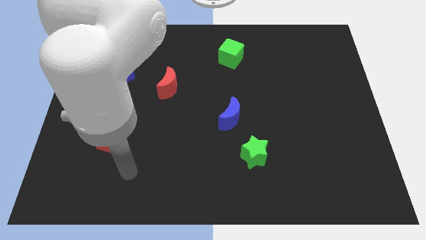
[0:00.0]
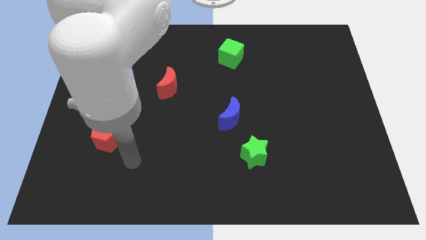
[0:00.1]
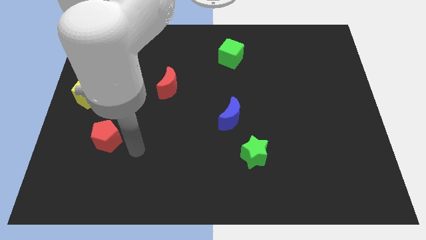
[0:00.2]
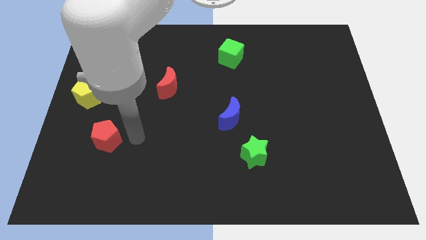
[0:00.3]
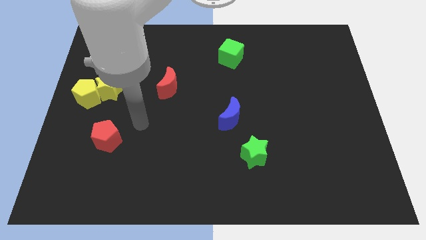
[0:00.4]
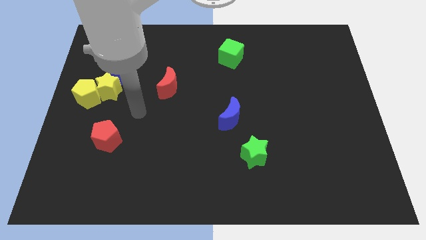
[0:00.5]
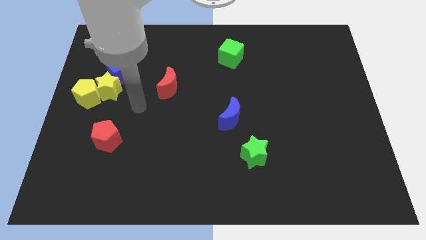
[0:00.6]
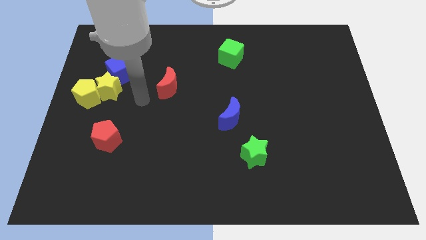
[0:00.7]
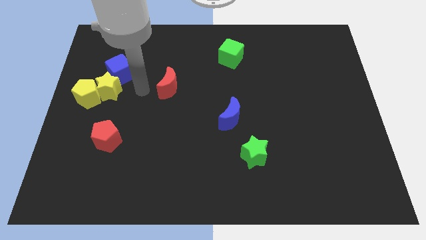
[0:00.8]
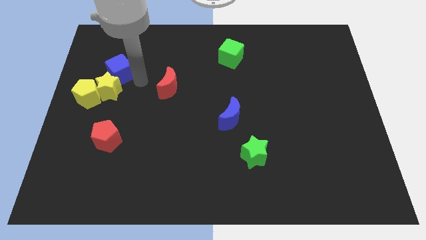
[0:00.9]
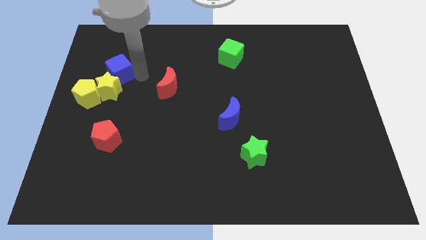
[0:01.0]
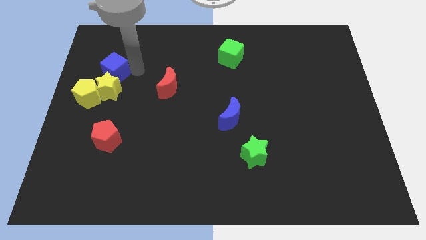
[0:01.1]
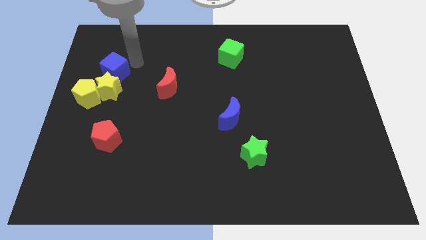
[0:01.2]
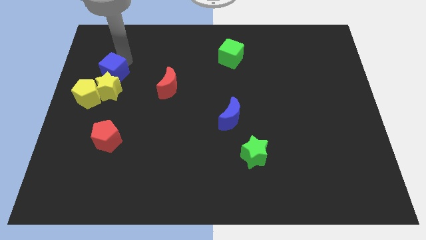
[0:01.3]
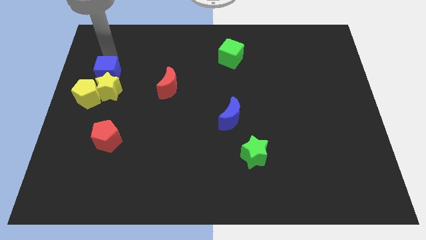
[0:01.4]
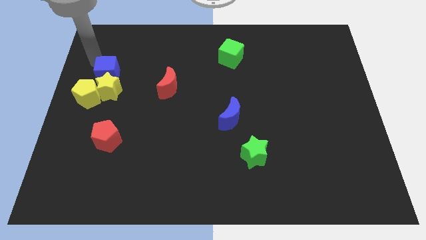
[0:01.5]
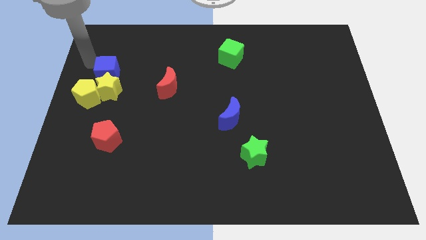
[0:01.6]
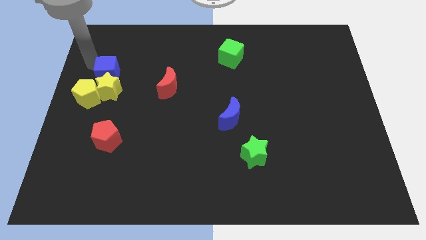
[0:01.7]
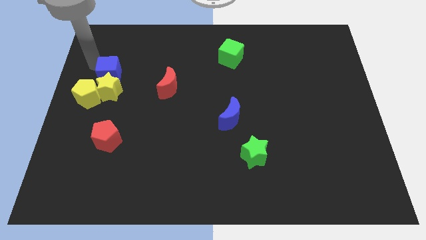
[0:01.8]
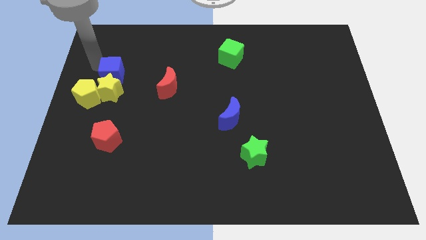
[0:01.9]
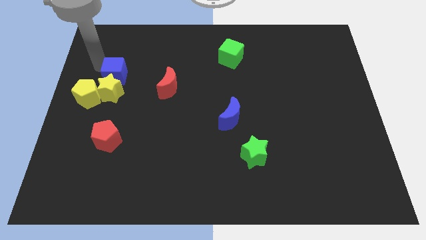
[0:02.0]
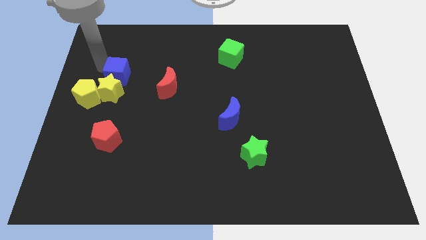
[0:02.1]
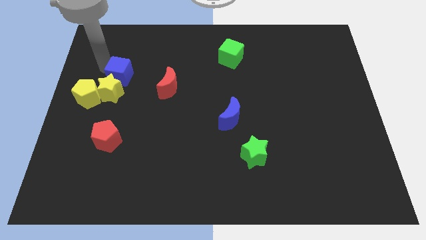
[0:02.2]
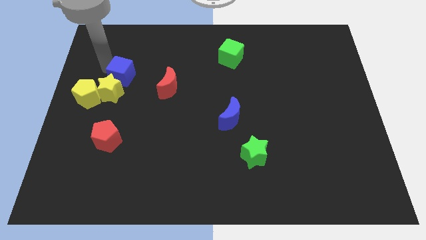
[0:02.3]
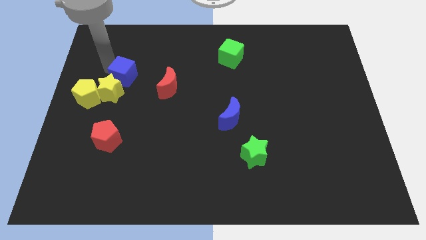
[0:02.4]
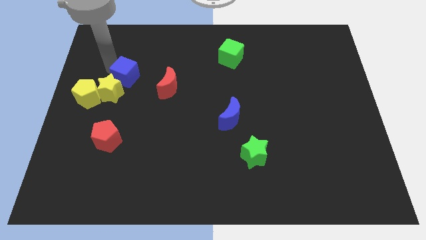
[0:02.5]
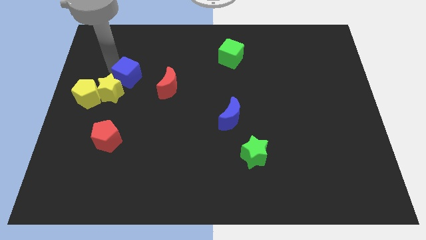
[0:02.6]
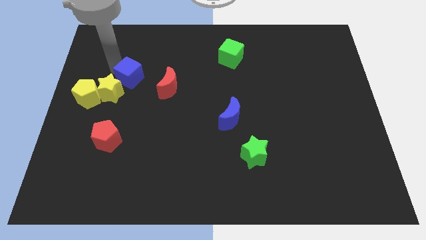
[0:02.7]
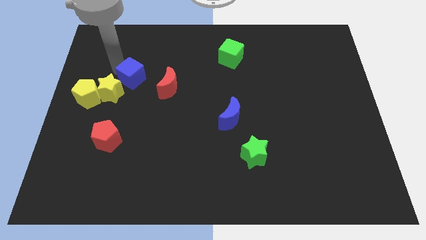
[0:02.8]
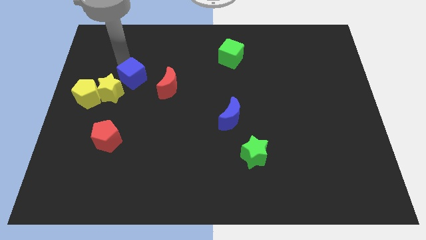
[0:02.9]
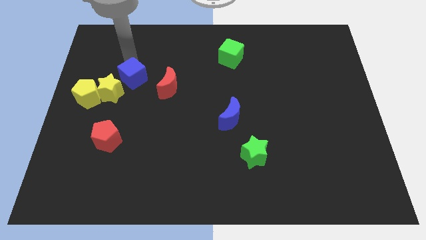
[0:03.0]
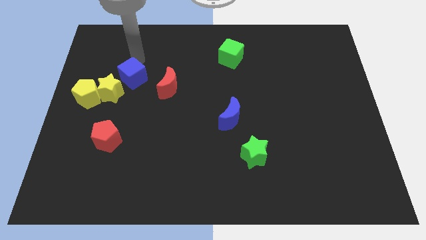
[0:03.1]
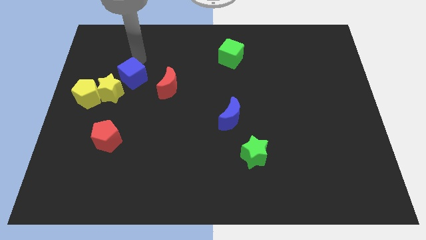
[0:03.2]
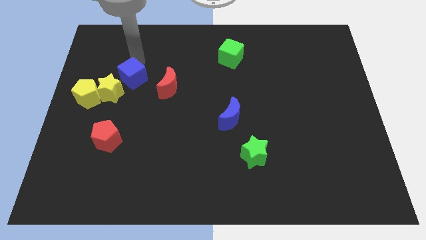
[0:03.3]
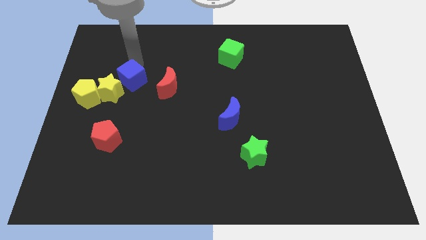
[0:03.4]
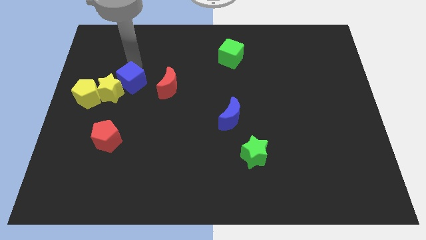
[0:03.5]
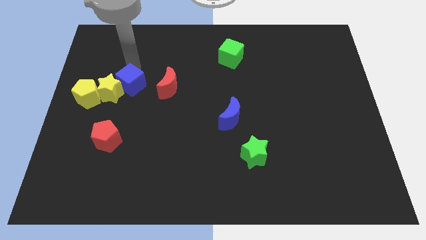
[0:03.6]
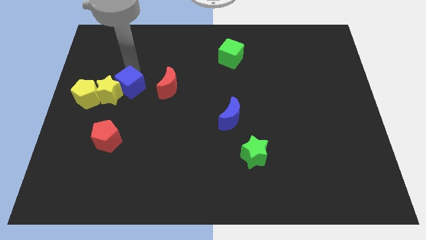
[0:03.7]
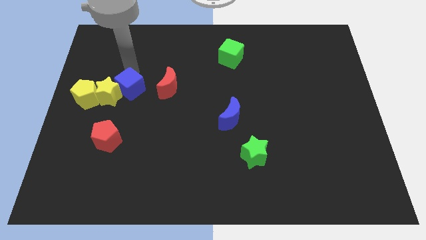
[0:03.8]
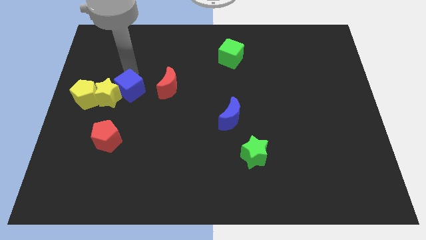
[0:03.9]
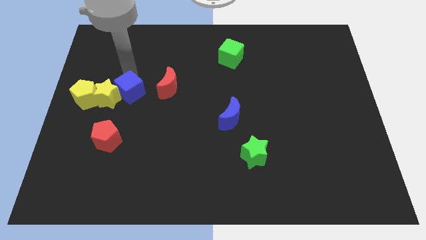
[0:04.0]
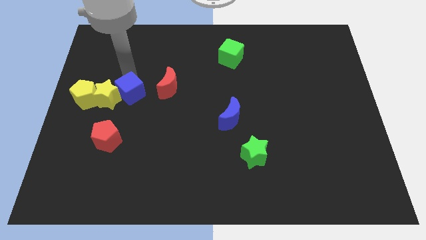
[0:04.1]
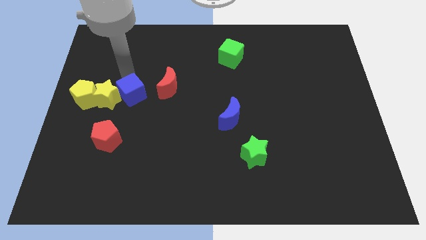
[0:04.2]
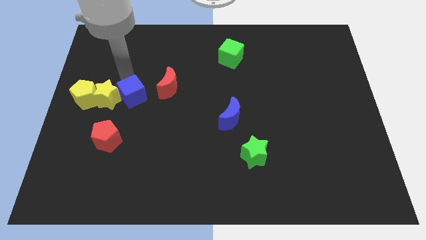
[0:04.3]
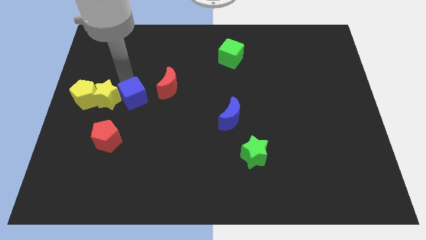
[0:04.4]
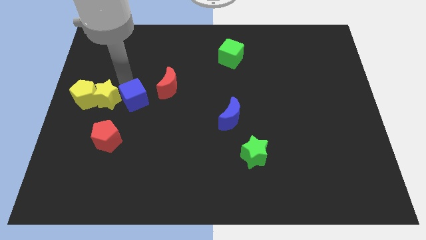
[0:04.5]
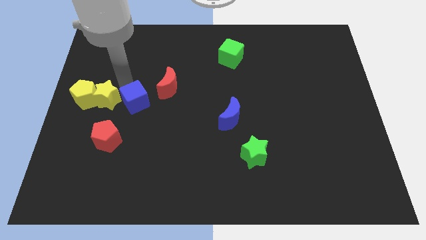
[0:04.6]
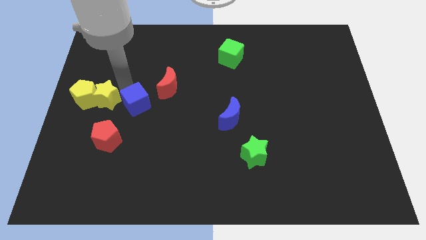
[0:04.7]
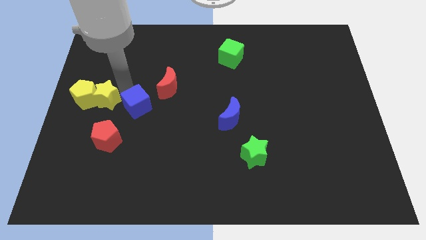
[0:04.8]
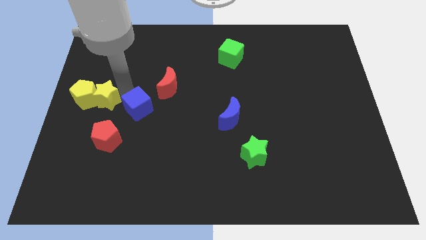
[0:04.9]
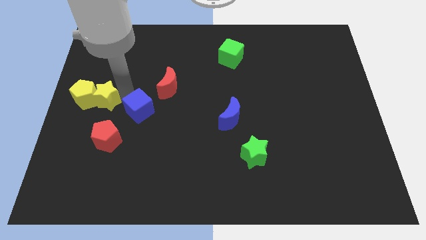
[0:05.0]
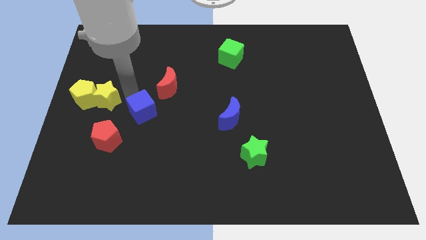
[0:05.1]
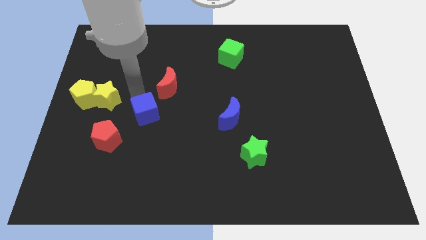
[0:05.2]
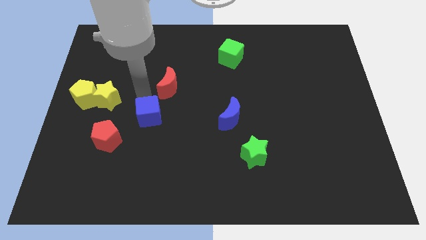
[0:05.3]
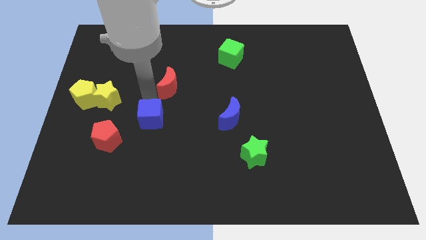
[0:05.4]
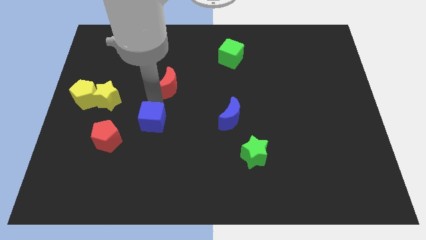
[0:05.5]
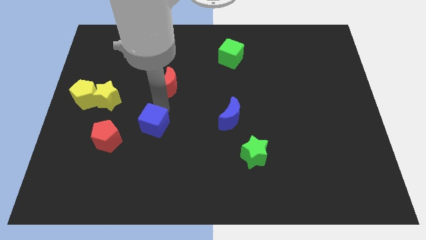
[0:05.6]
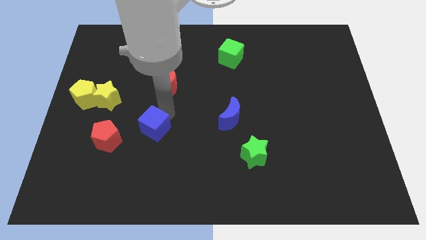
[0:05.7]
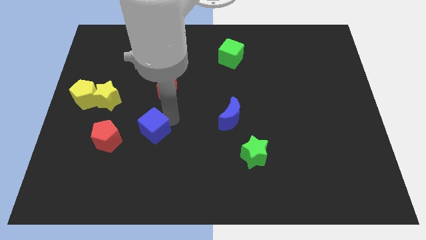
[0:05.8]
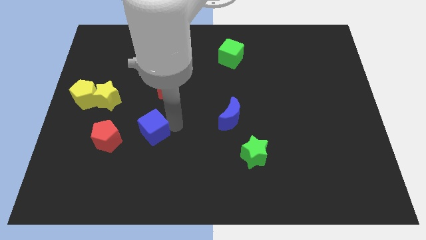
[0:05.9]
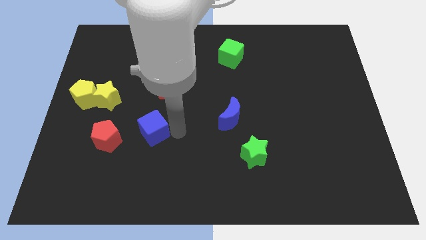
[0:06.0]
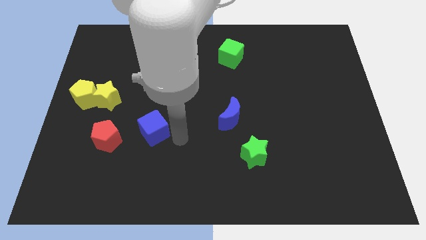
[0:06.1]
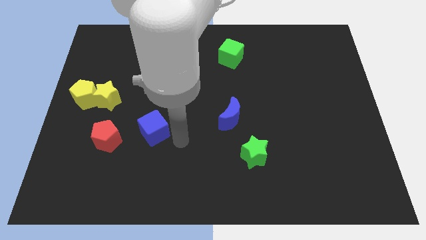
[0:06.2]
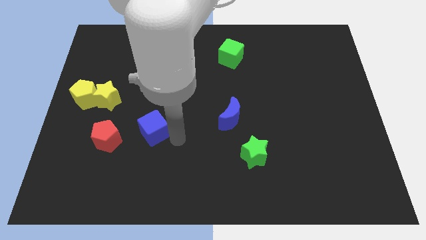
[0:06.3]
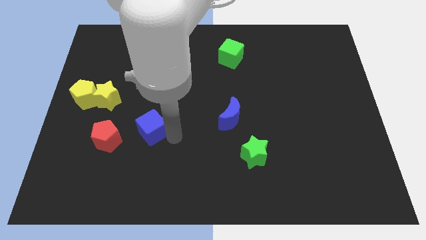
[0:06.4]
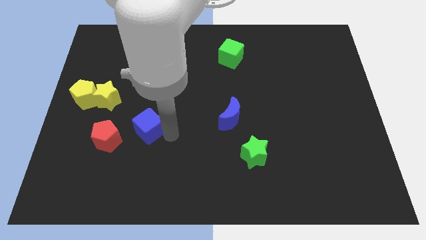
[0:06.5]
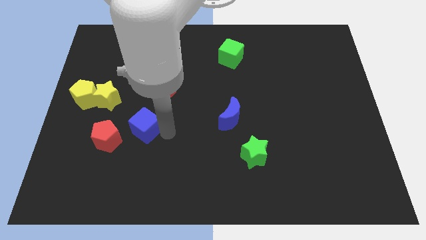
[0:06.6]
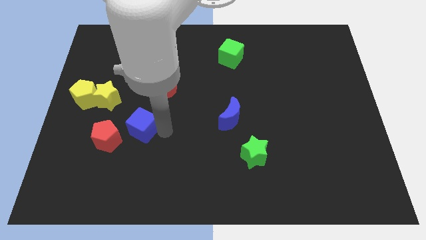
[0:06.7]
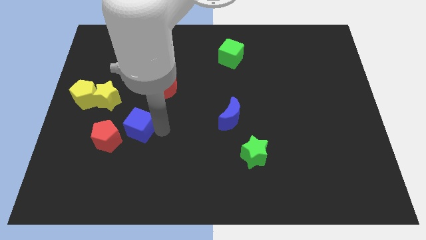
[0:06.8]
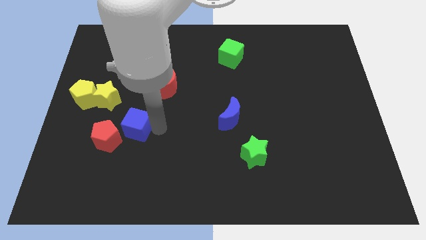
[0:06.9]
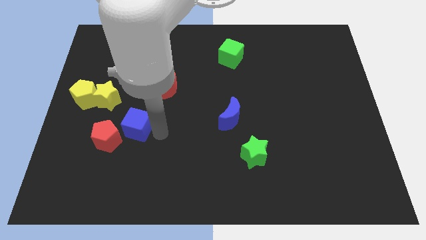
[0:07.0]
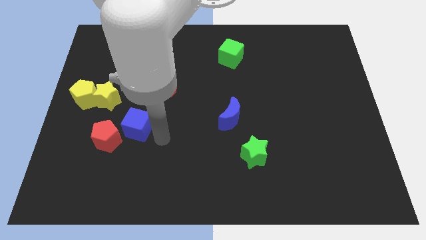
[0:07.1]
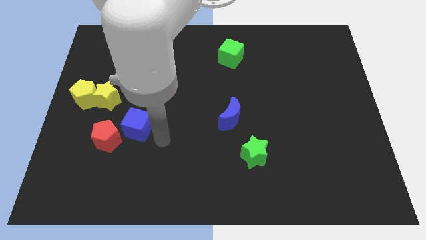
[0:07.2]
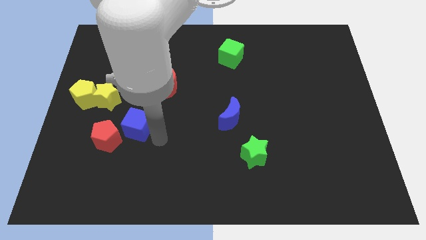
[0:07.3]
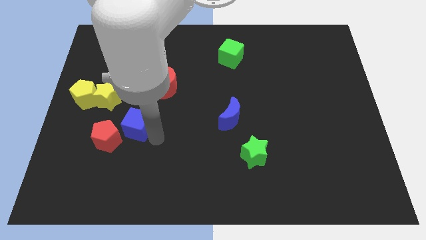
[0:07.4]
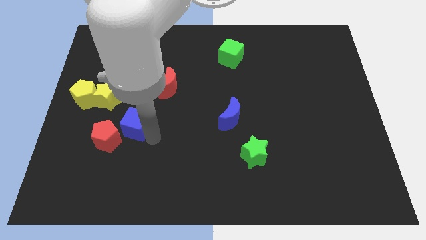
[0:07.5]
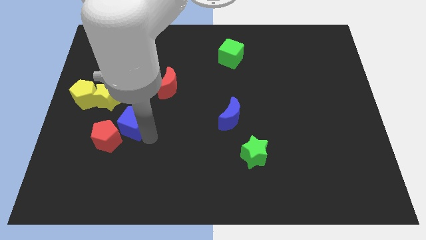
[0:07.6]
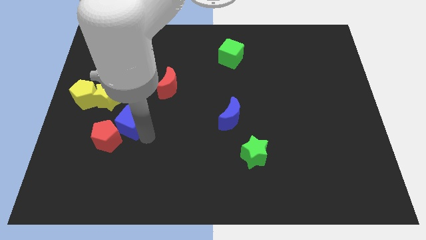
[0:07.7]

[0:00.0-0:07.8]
push the blue cube next to the red pentagon
